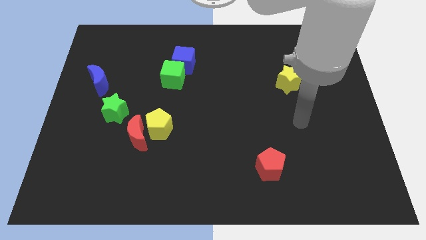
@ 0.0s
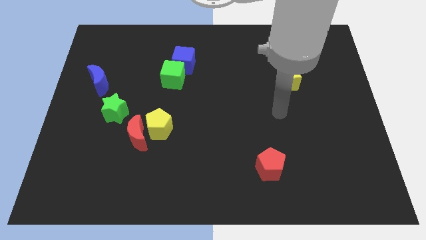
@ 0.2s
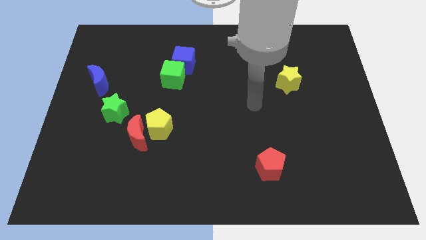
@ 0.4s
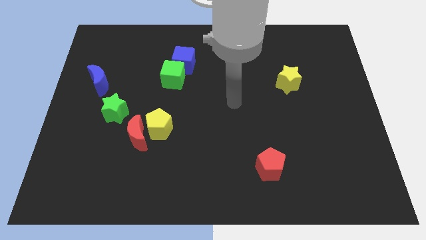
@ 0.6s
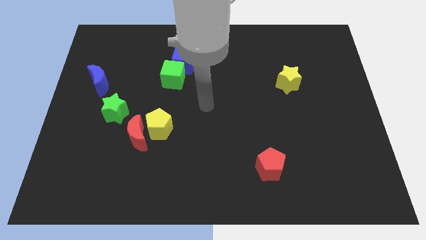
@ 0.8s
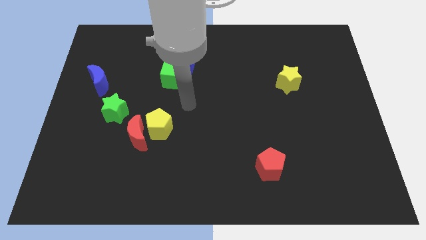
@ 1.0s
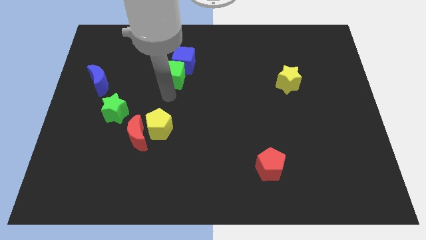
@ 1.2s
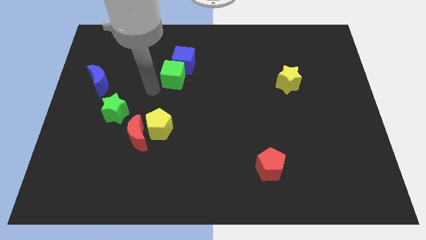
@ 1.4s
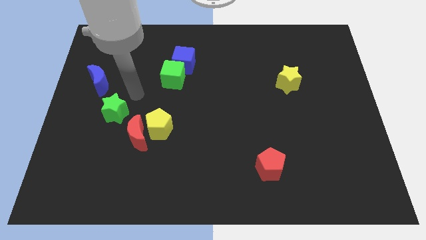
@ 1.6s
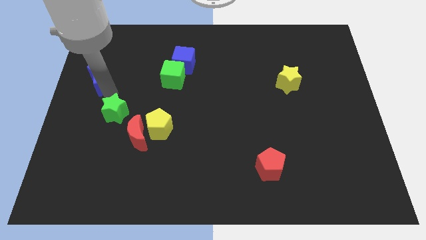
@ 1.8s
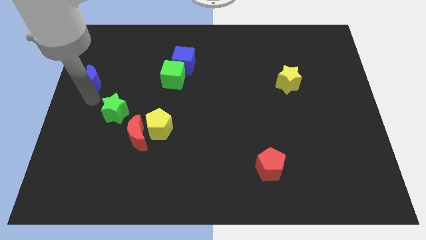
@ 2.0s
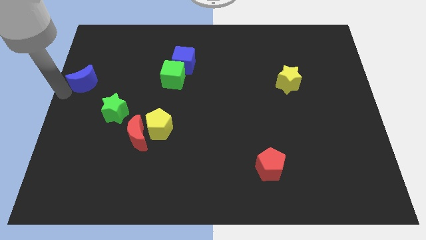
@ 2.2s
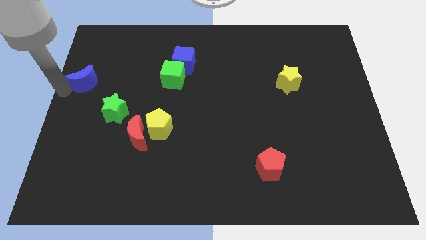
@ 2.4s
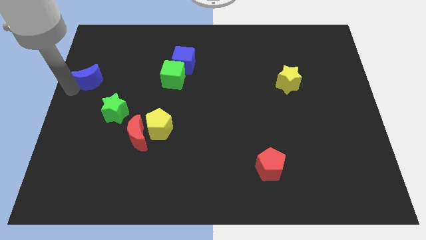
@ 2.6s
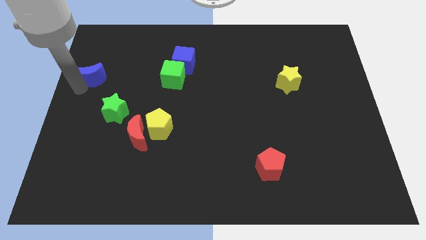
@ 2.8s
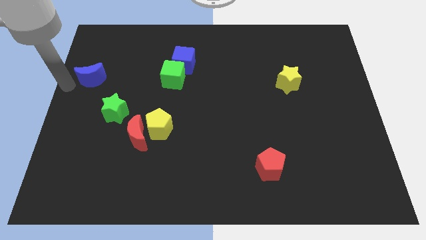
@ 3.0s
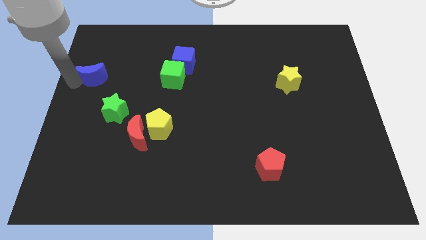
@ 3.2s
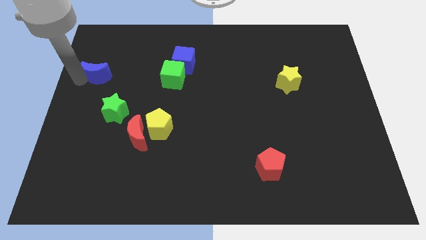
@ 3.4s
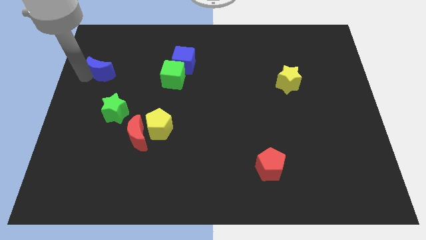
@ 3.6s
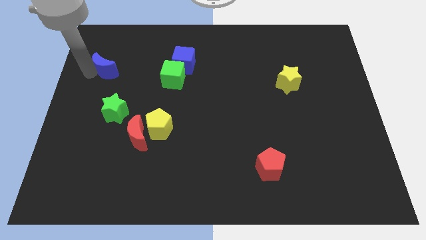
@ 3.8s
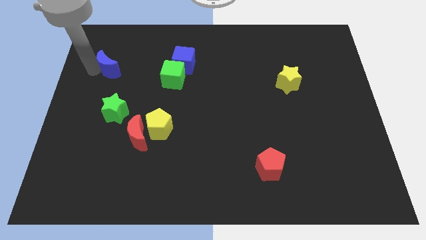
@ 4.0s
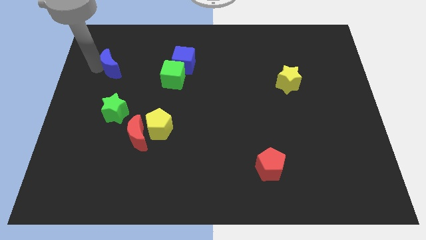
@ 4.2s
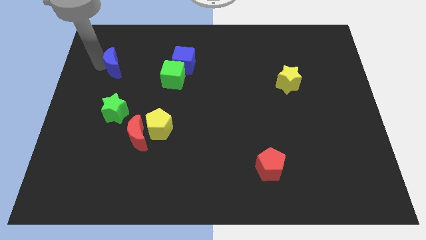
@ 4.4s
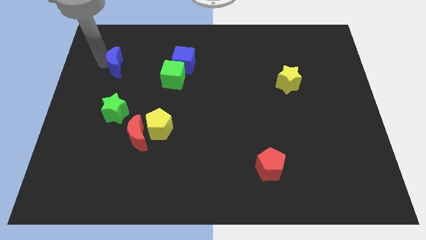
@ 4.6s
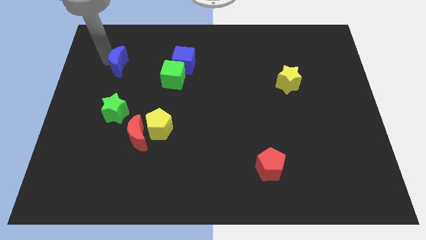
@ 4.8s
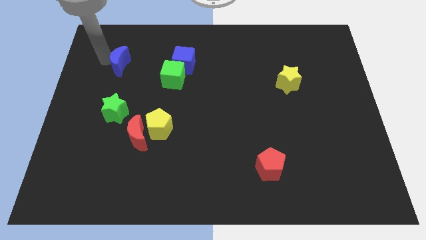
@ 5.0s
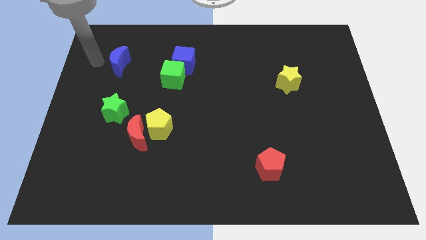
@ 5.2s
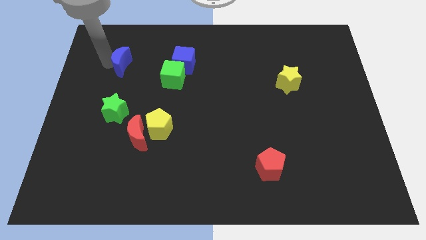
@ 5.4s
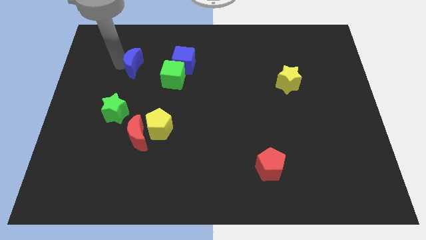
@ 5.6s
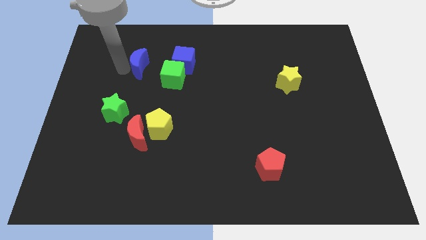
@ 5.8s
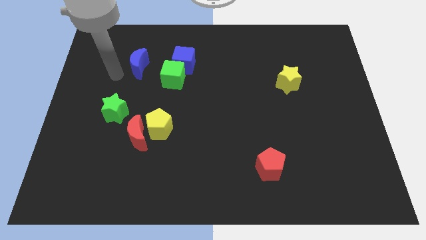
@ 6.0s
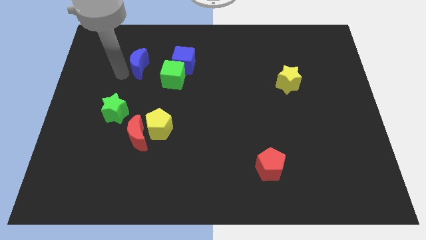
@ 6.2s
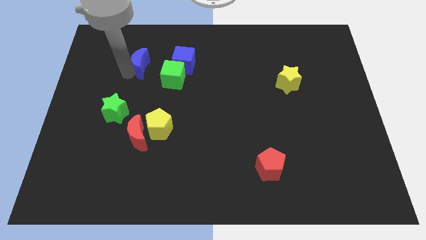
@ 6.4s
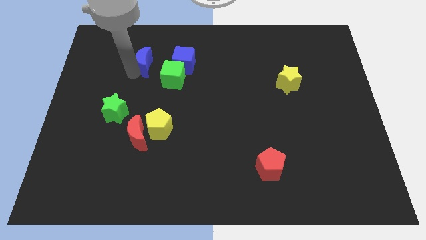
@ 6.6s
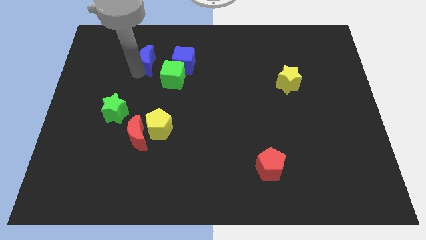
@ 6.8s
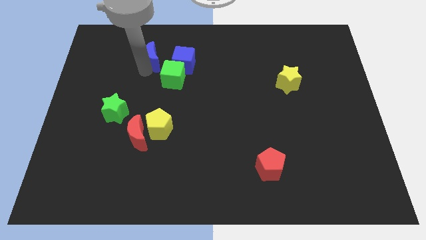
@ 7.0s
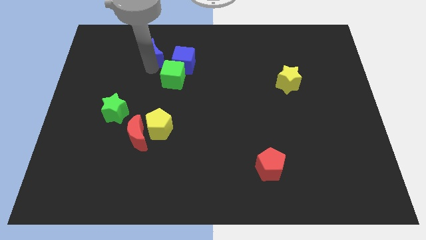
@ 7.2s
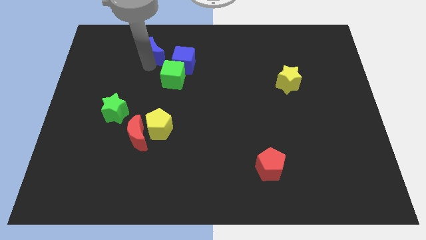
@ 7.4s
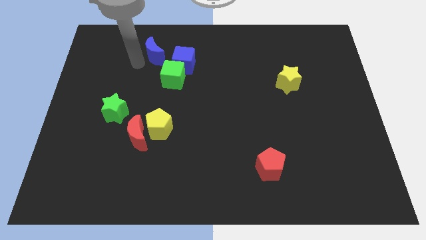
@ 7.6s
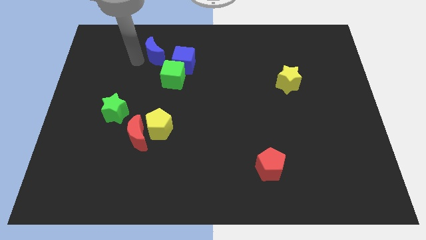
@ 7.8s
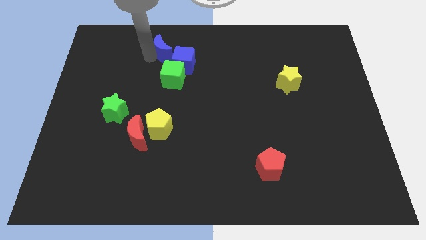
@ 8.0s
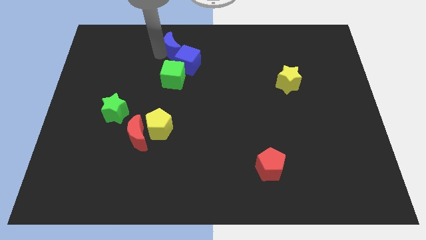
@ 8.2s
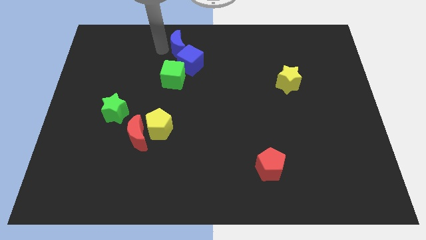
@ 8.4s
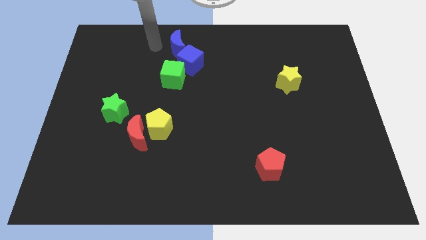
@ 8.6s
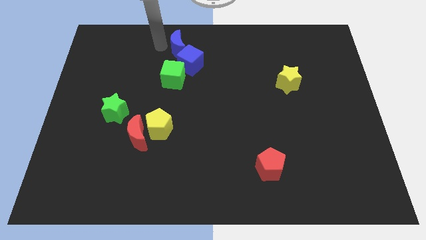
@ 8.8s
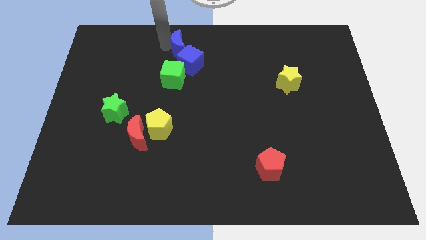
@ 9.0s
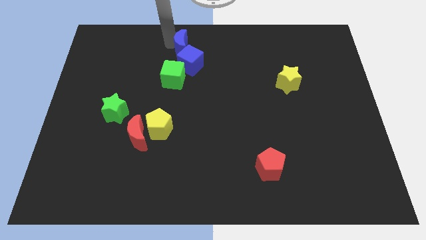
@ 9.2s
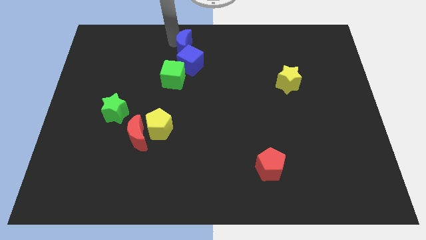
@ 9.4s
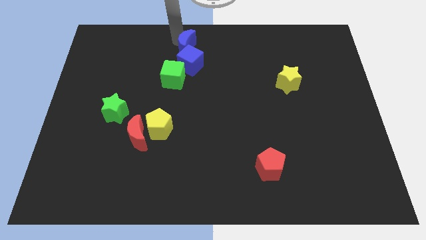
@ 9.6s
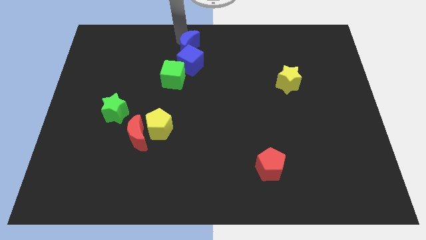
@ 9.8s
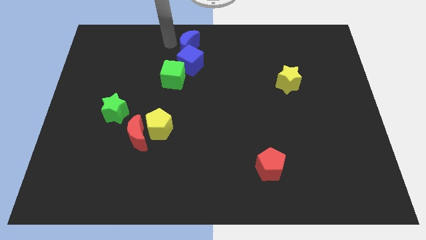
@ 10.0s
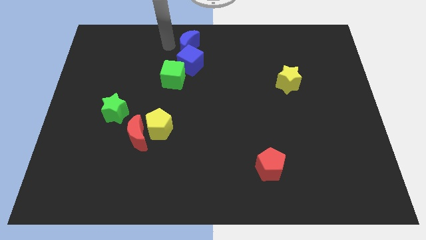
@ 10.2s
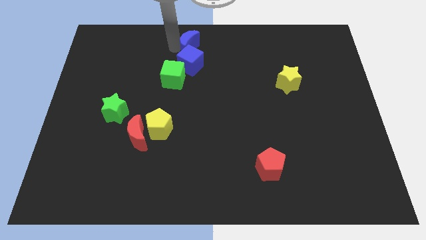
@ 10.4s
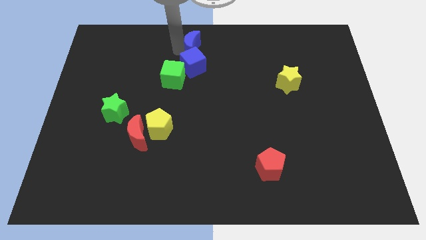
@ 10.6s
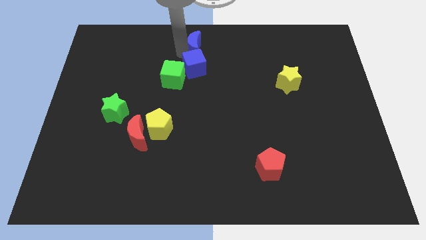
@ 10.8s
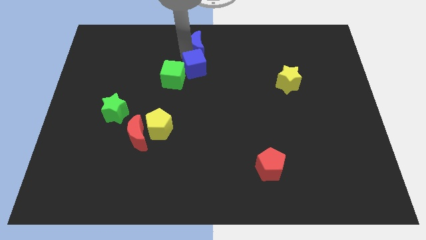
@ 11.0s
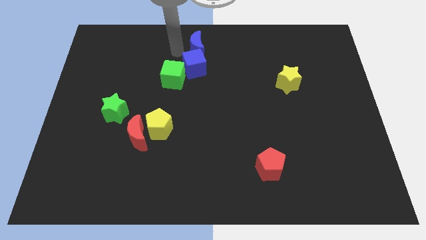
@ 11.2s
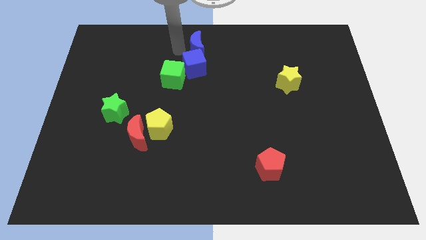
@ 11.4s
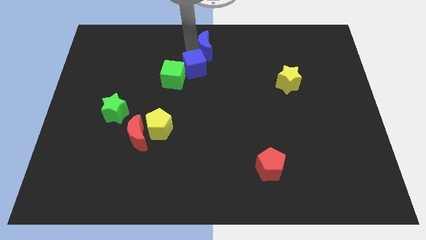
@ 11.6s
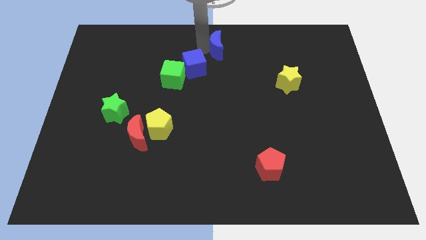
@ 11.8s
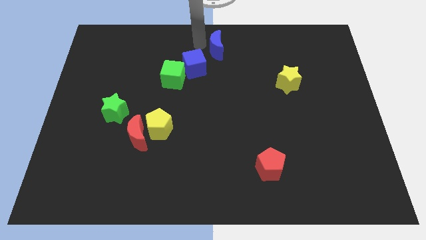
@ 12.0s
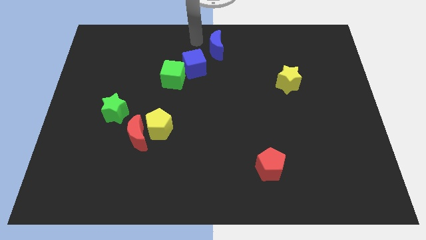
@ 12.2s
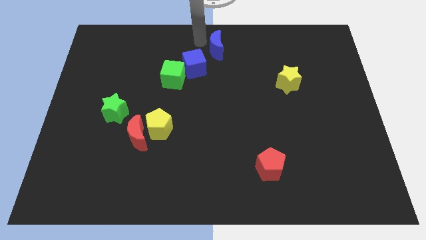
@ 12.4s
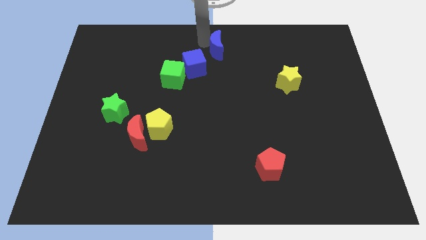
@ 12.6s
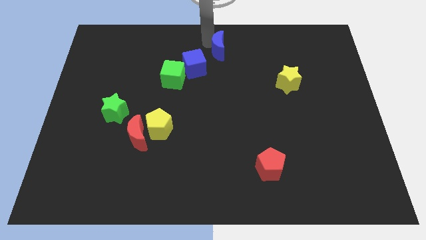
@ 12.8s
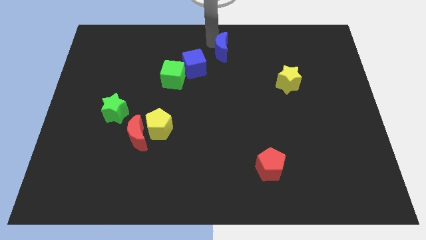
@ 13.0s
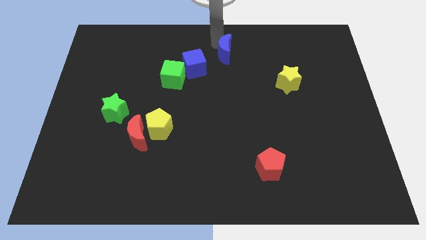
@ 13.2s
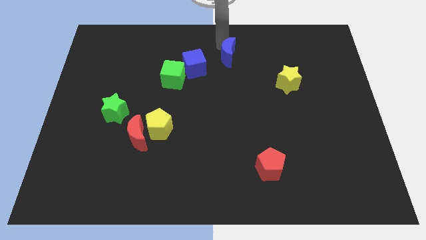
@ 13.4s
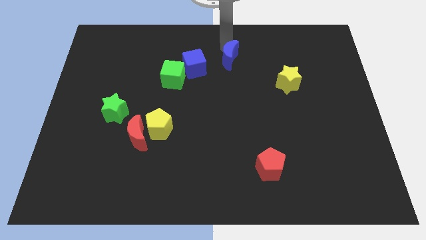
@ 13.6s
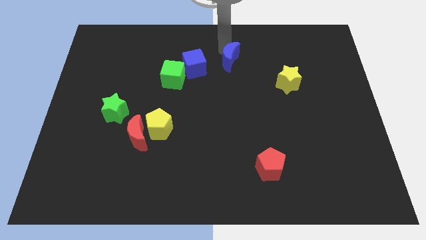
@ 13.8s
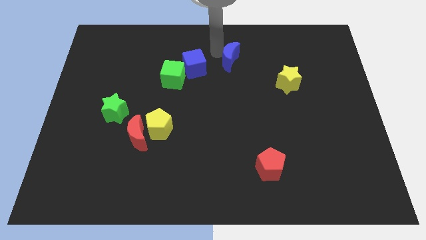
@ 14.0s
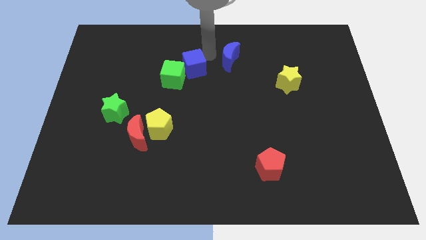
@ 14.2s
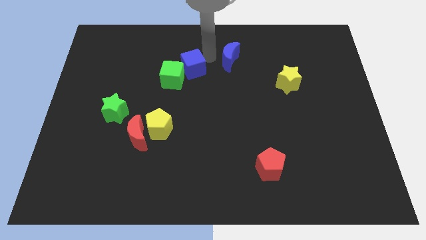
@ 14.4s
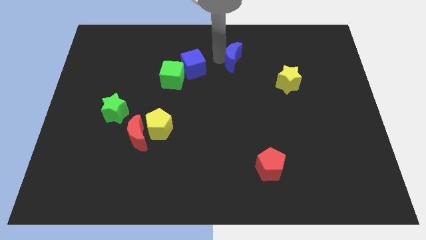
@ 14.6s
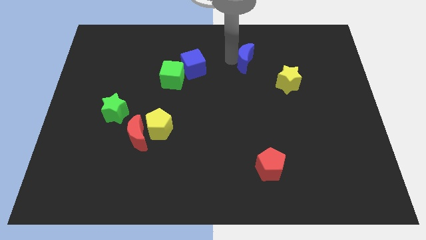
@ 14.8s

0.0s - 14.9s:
slide the blue moon to the top left of the yellow star
